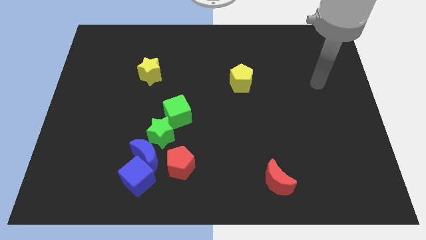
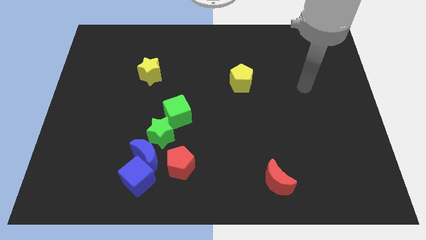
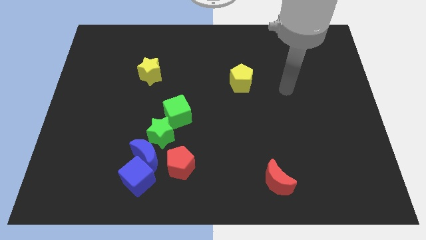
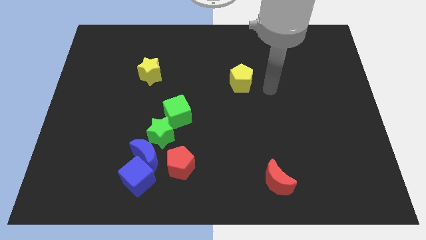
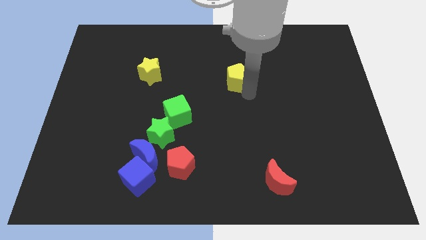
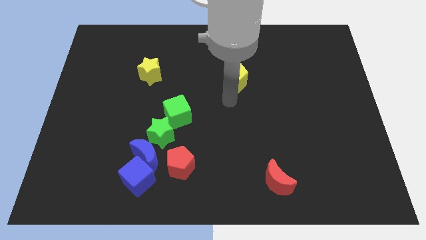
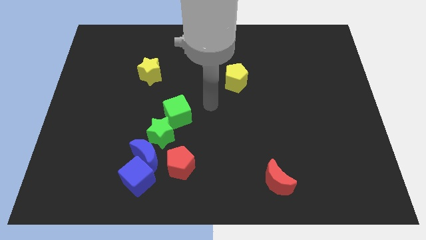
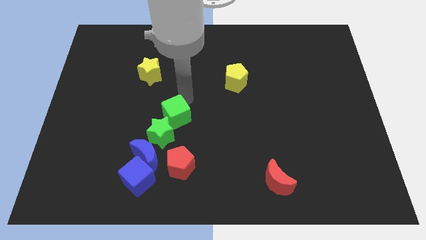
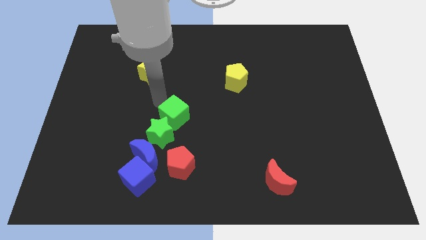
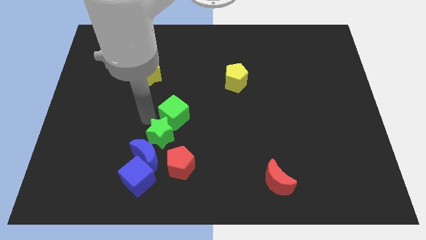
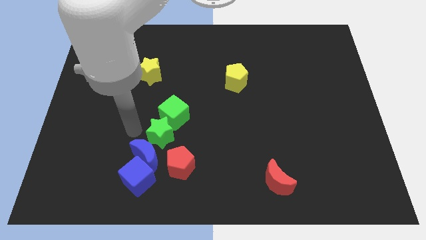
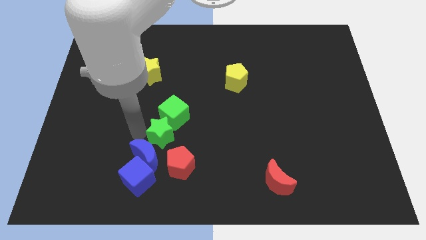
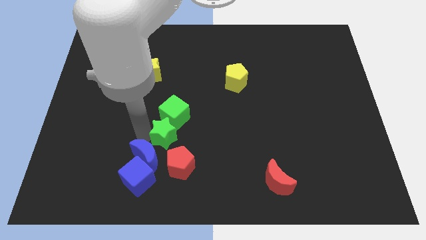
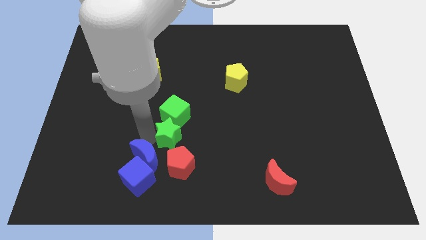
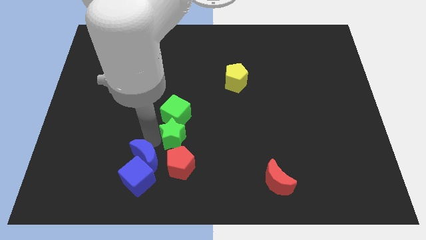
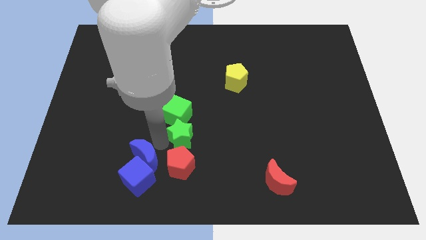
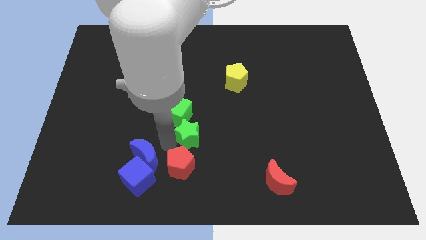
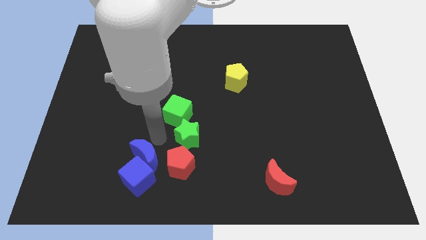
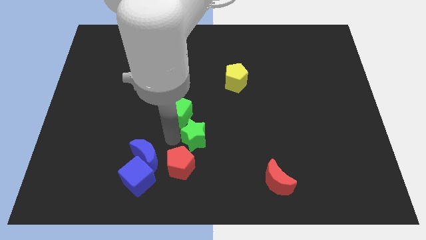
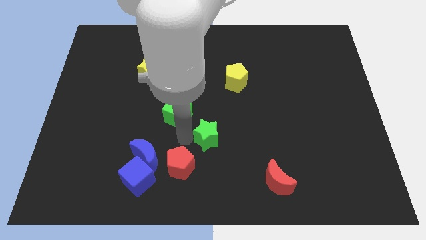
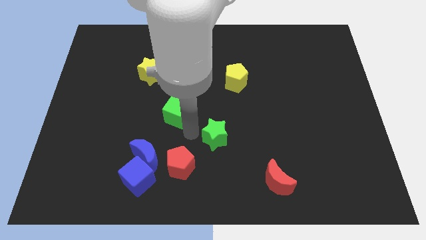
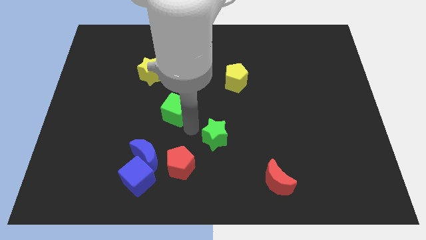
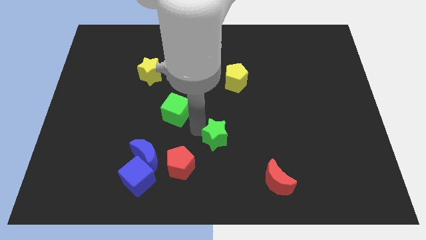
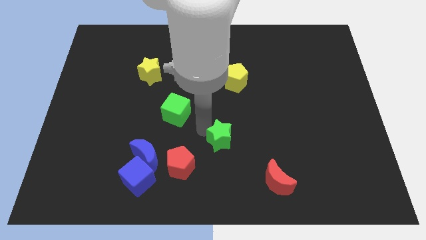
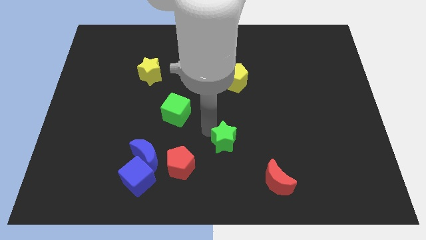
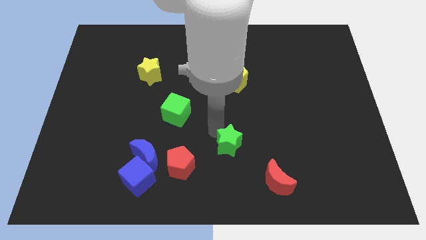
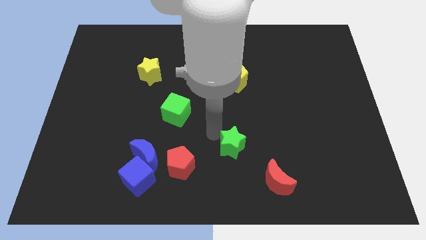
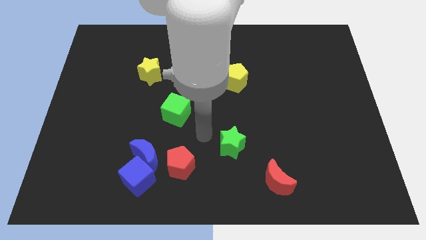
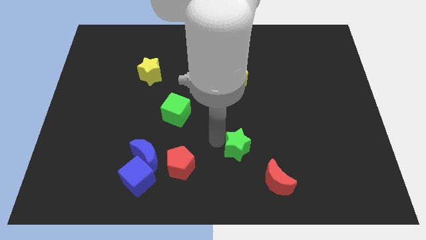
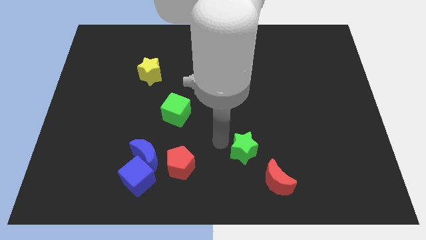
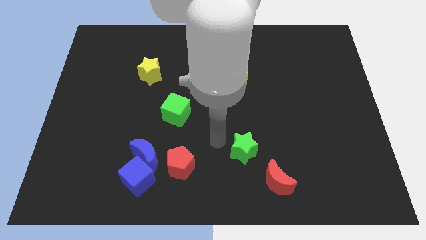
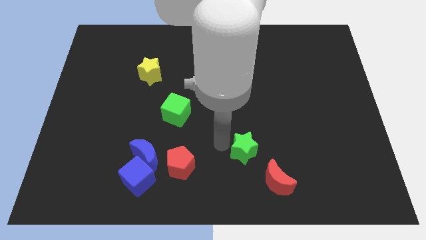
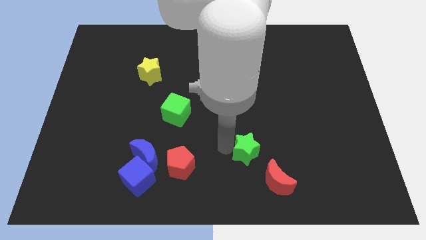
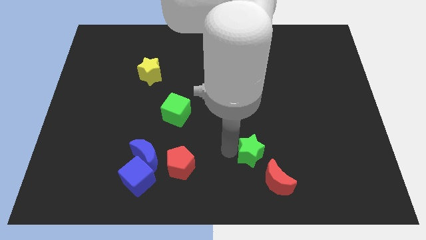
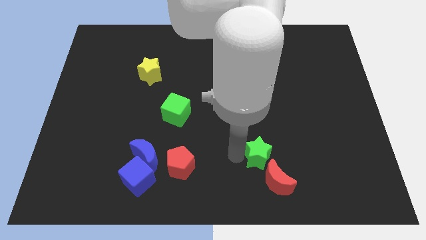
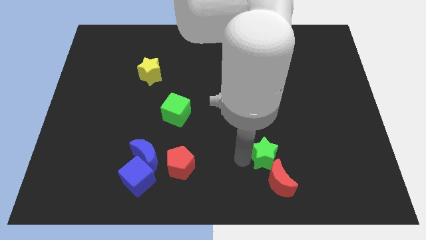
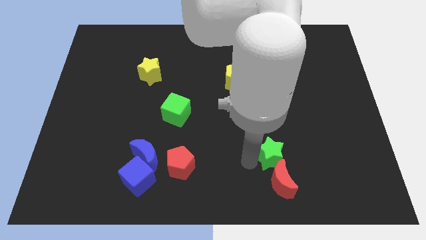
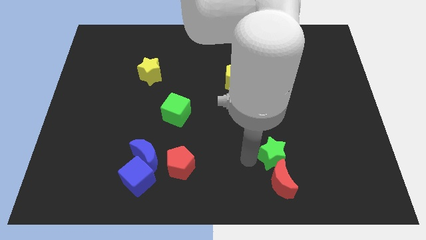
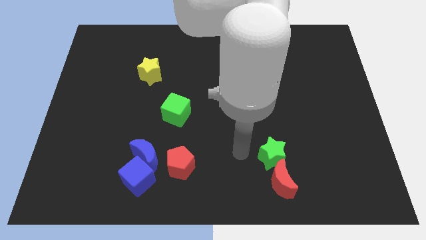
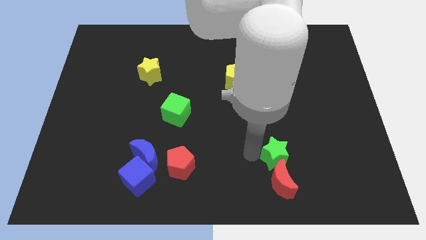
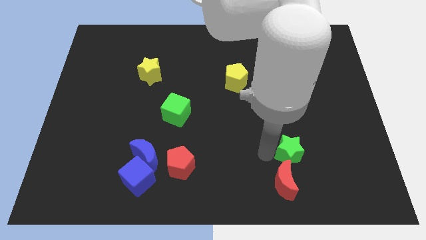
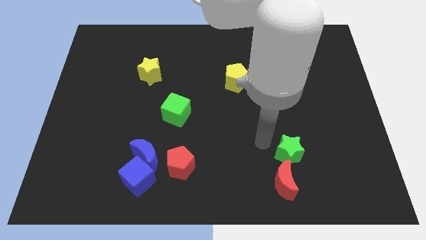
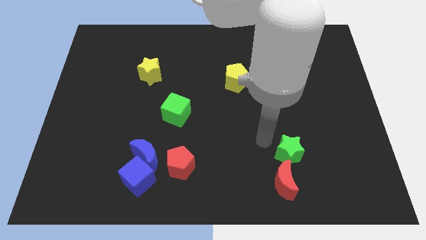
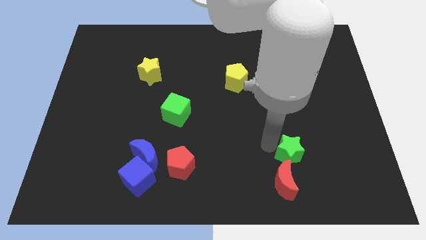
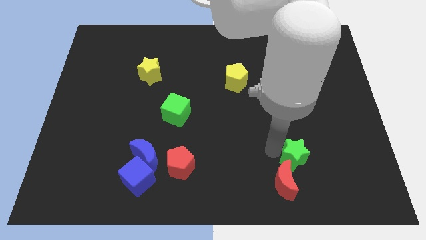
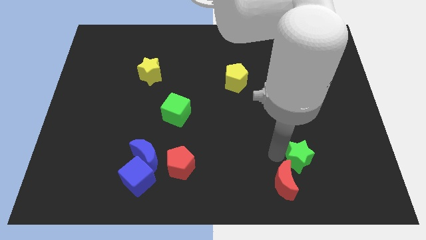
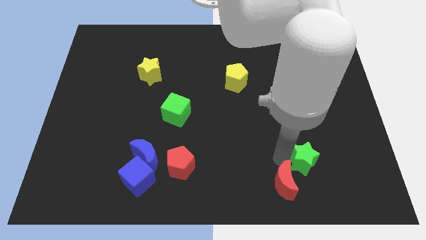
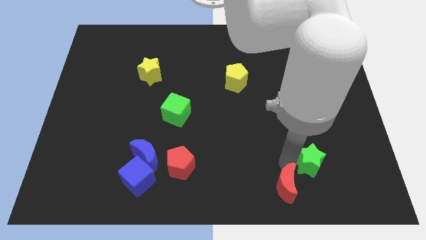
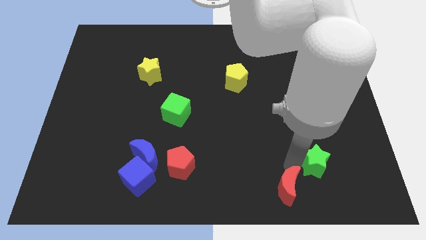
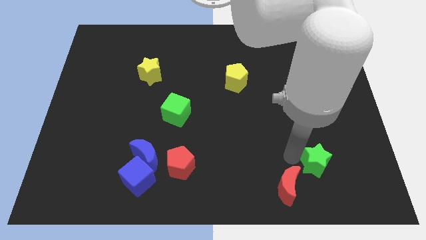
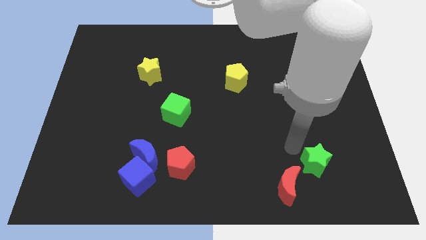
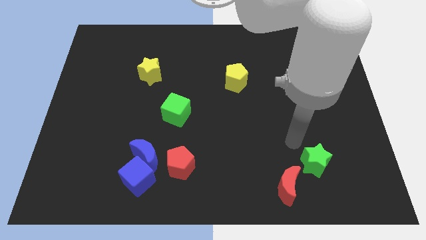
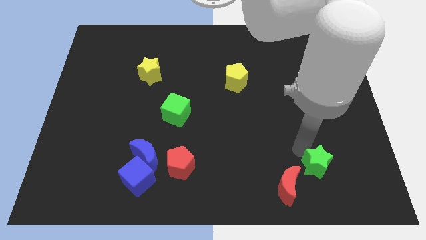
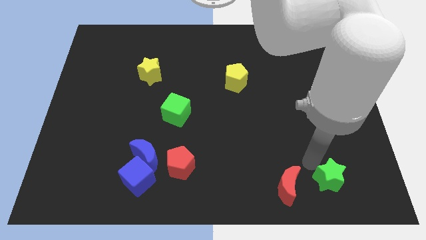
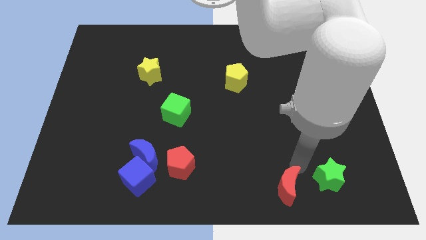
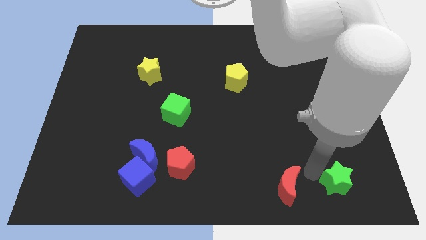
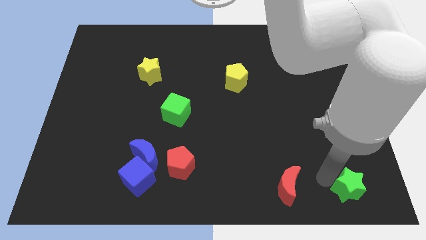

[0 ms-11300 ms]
slide the green star to the bottom right of the board
